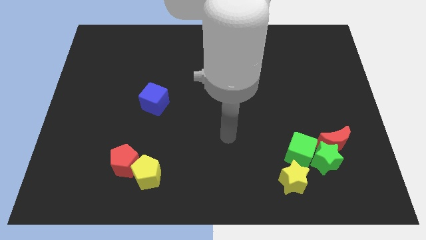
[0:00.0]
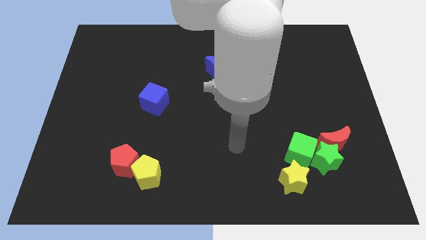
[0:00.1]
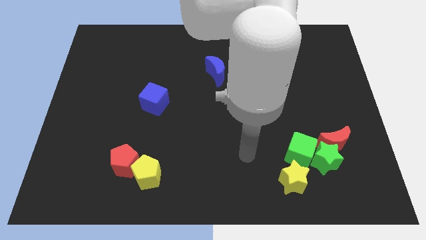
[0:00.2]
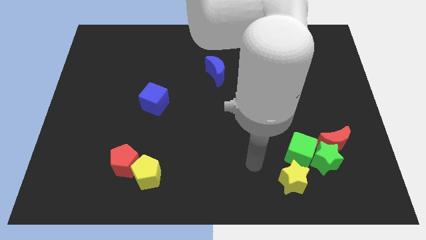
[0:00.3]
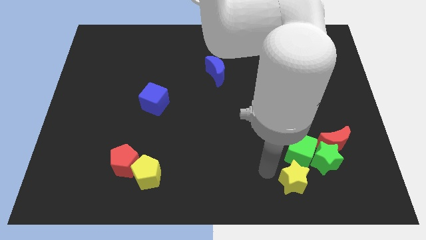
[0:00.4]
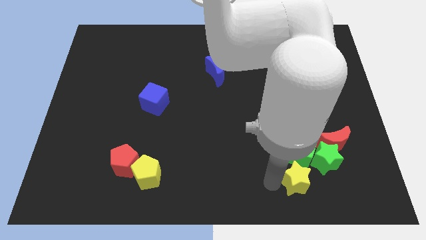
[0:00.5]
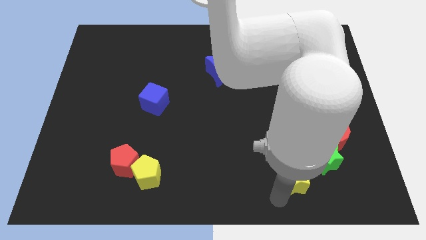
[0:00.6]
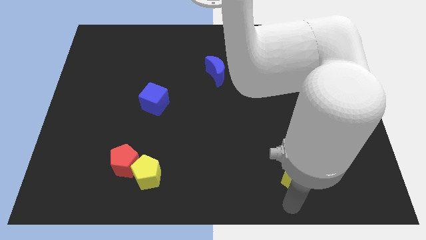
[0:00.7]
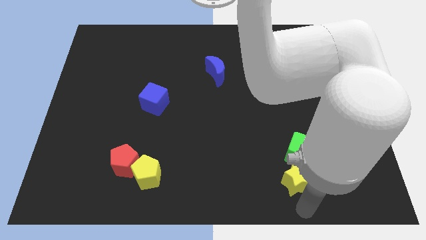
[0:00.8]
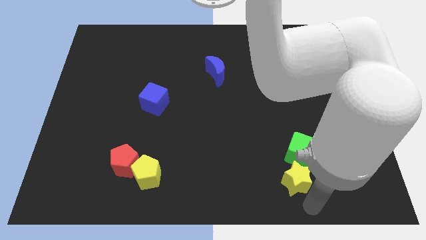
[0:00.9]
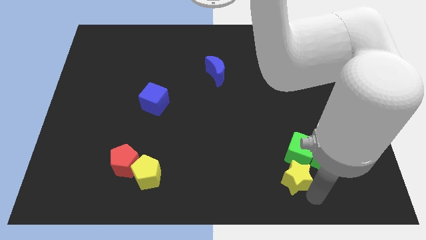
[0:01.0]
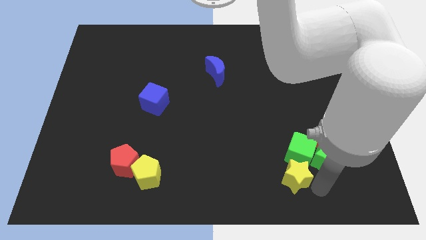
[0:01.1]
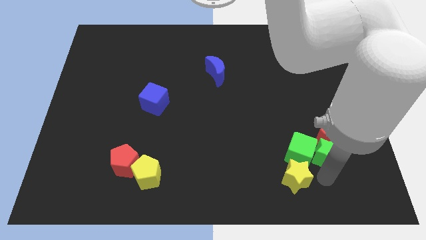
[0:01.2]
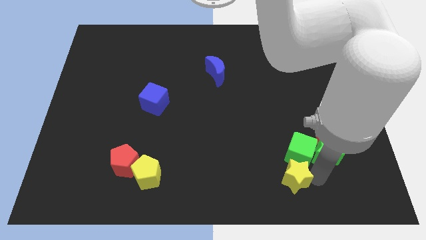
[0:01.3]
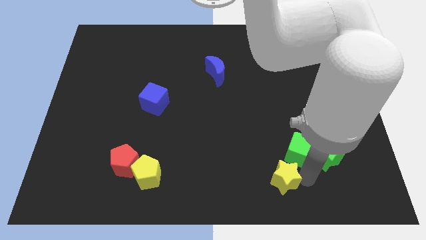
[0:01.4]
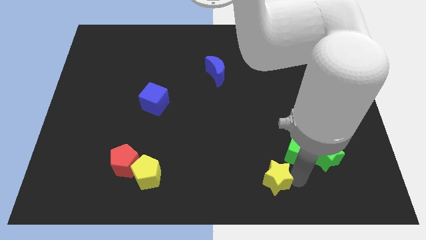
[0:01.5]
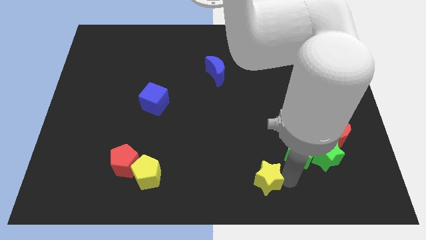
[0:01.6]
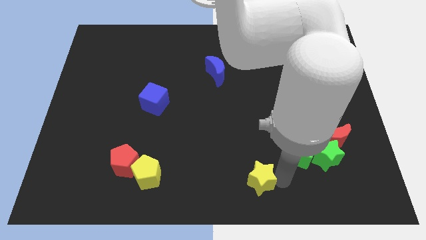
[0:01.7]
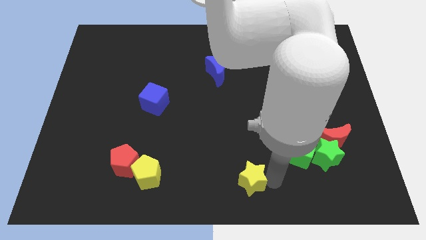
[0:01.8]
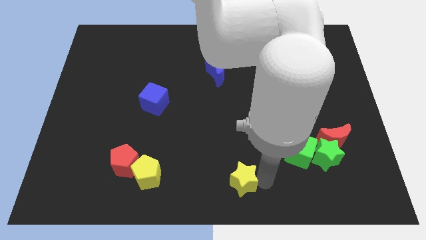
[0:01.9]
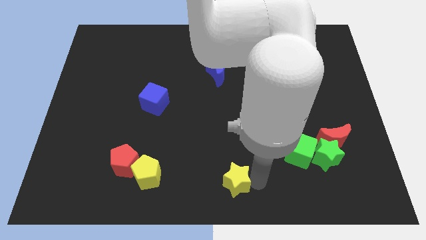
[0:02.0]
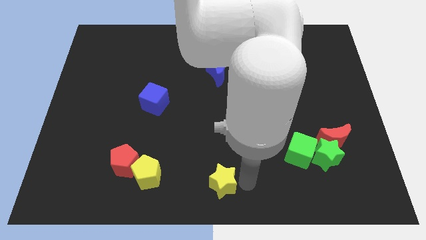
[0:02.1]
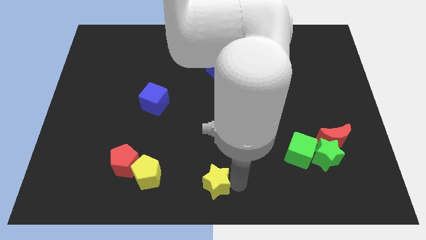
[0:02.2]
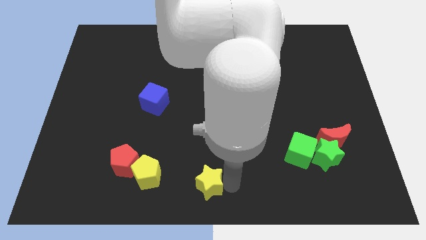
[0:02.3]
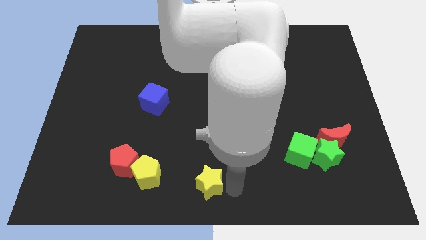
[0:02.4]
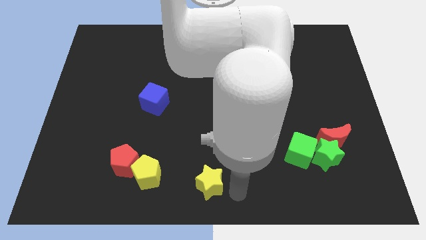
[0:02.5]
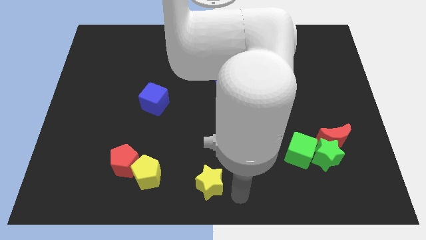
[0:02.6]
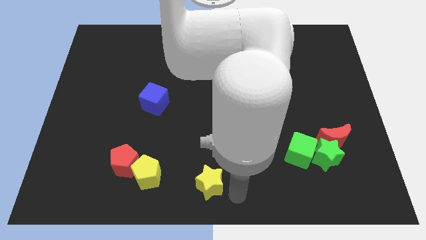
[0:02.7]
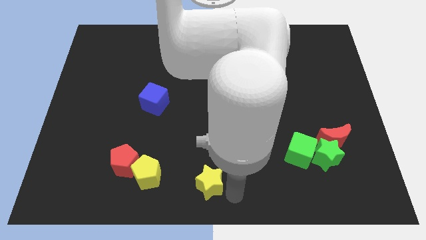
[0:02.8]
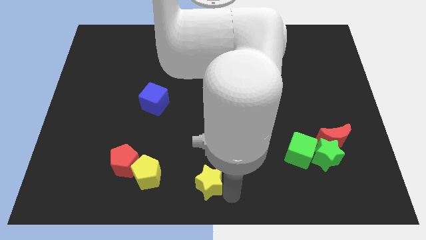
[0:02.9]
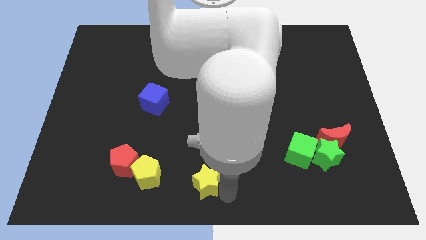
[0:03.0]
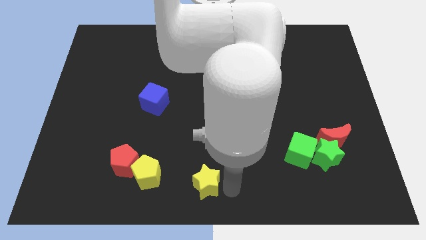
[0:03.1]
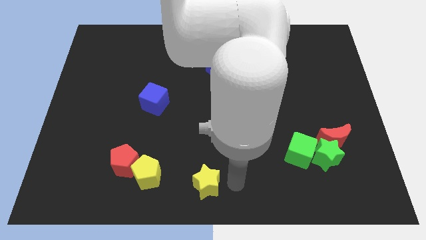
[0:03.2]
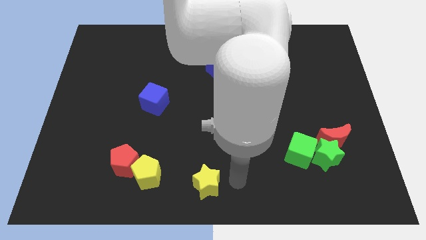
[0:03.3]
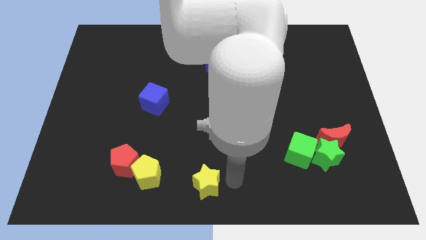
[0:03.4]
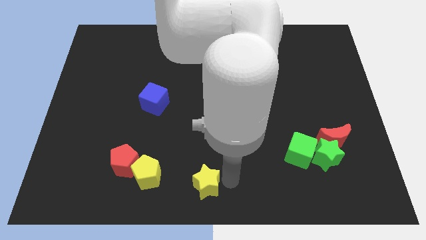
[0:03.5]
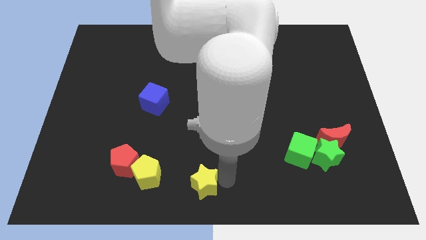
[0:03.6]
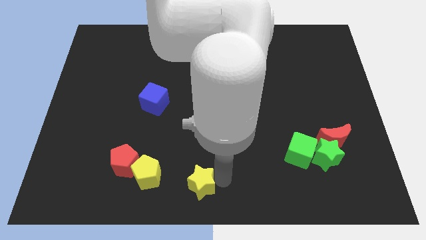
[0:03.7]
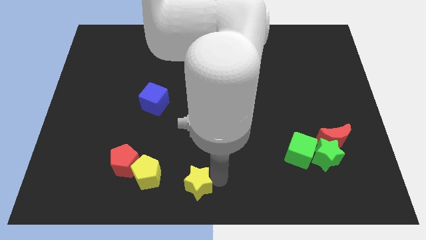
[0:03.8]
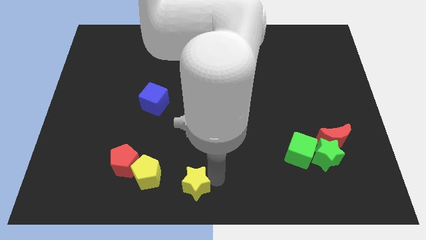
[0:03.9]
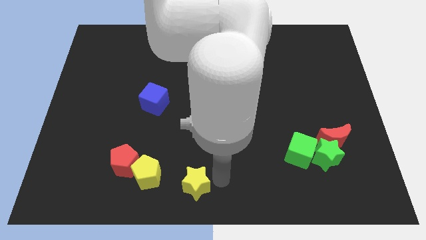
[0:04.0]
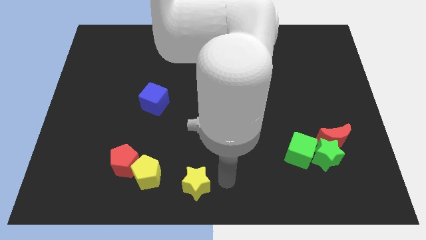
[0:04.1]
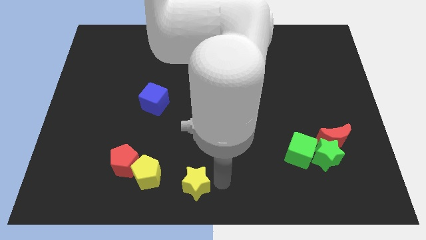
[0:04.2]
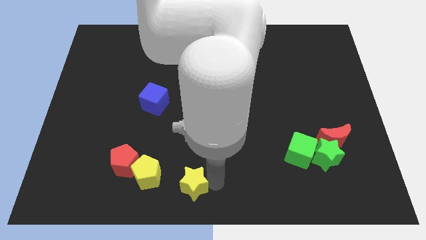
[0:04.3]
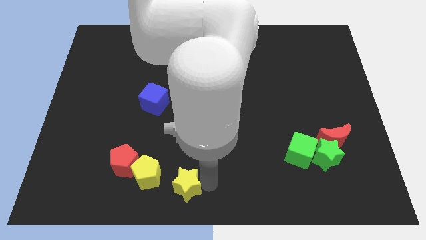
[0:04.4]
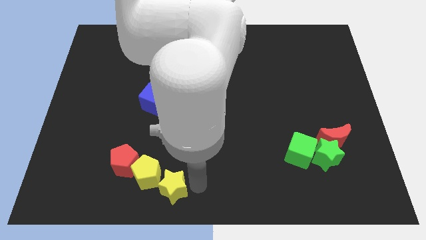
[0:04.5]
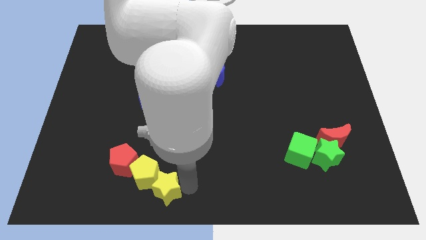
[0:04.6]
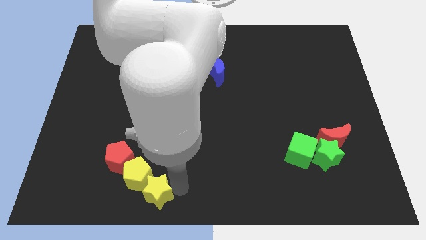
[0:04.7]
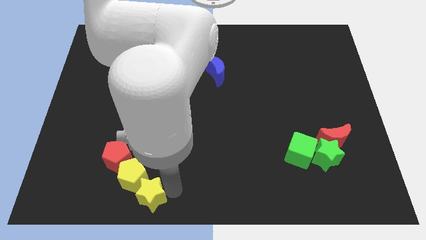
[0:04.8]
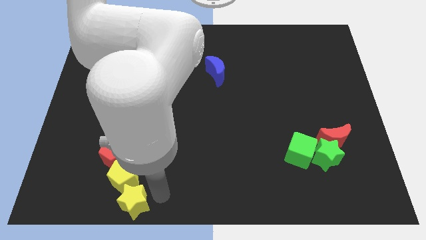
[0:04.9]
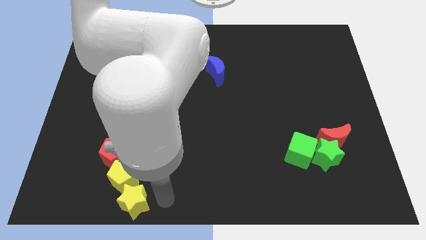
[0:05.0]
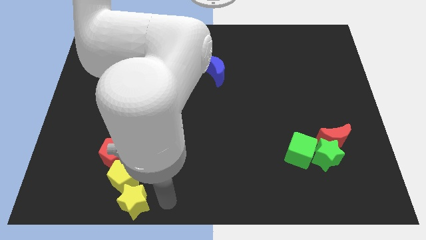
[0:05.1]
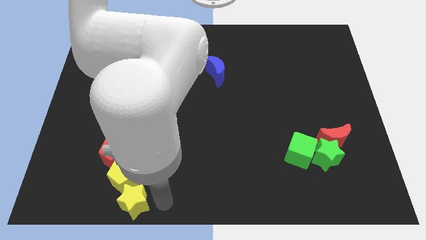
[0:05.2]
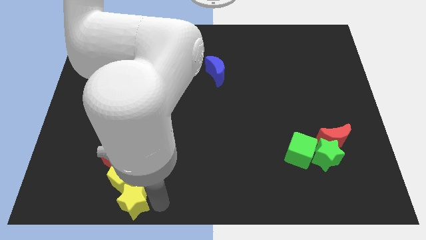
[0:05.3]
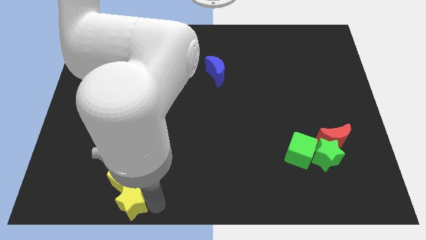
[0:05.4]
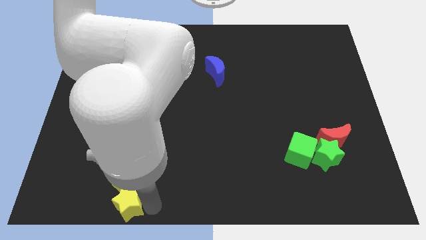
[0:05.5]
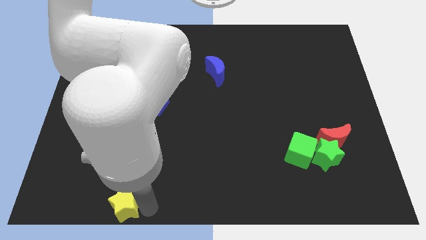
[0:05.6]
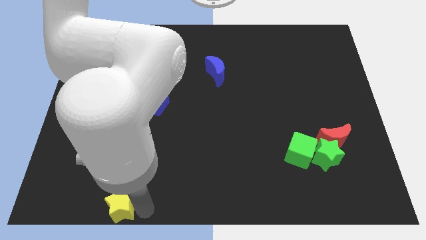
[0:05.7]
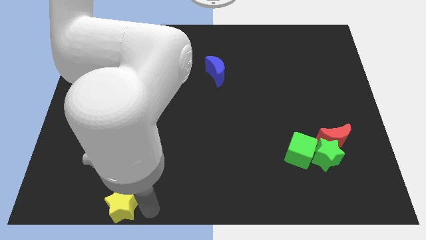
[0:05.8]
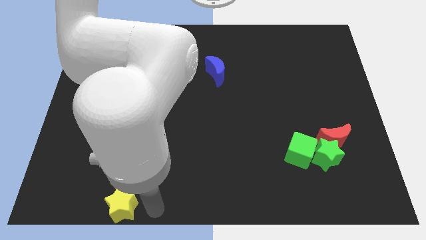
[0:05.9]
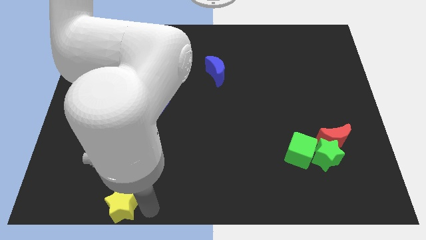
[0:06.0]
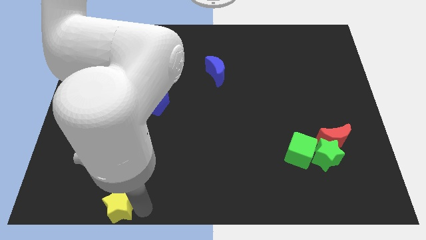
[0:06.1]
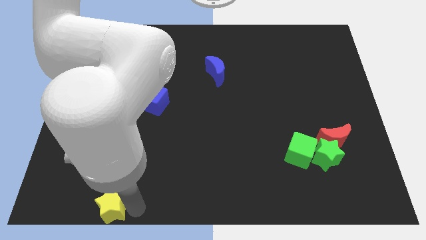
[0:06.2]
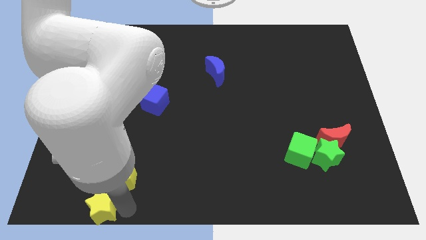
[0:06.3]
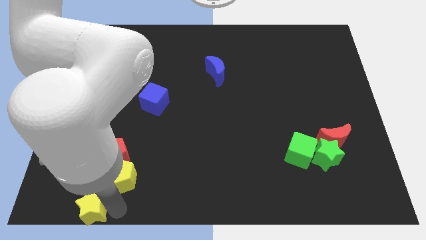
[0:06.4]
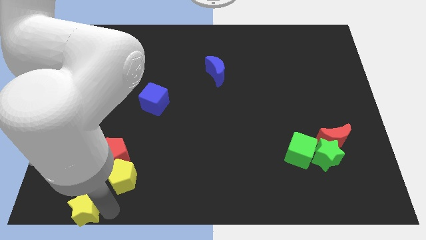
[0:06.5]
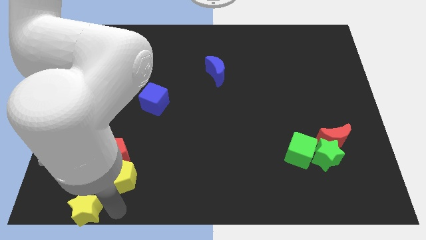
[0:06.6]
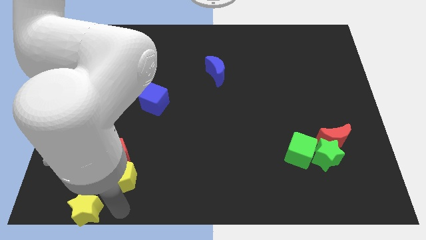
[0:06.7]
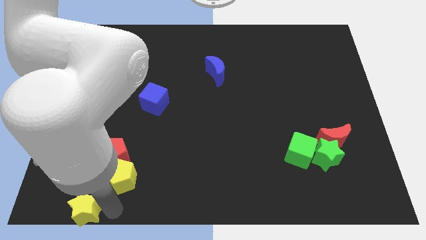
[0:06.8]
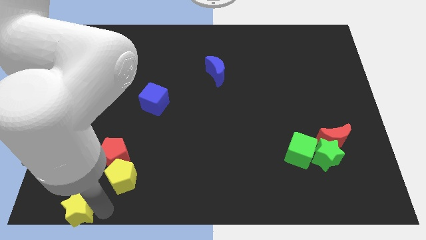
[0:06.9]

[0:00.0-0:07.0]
slide the yellow star to the bottom left corner
